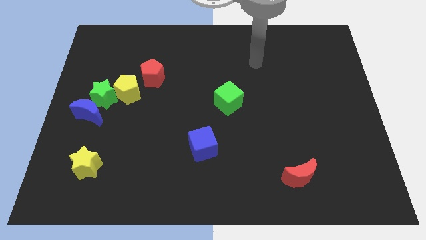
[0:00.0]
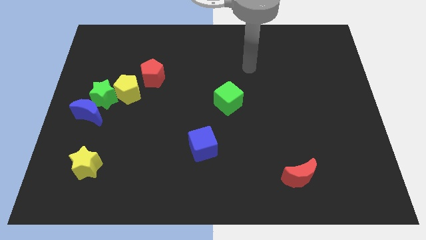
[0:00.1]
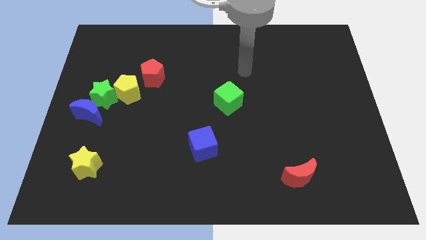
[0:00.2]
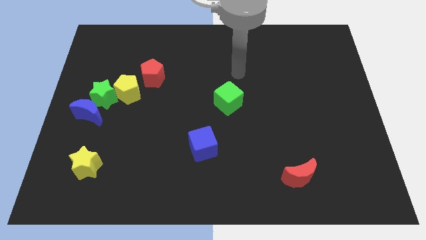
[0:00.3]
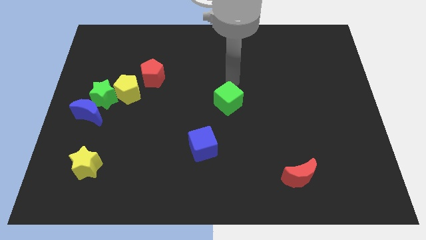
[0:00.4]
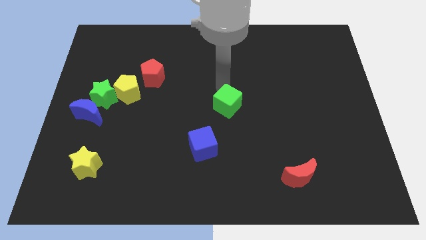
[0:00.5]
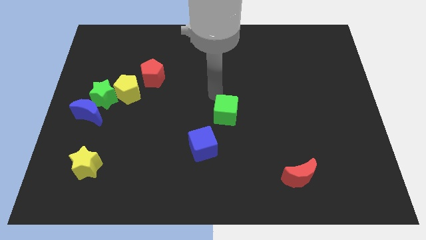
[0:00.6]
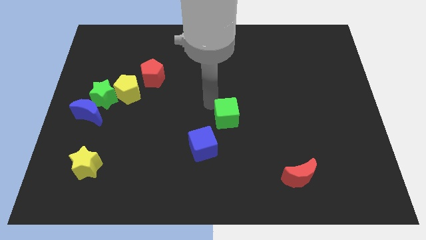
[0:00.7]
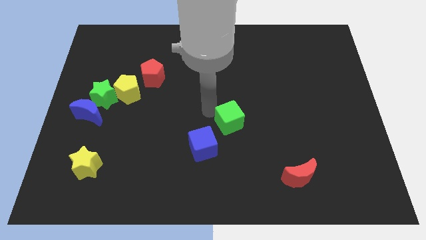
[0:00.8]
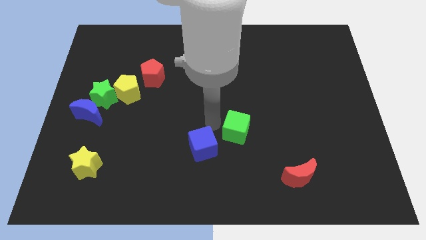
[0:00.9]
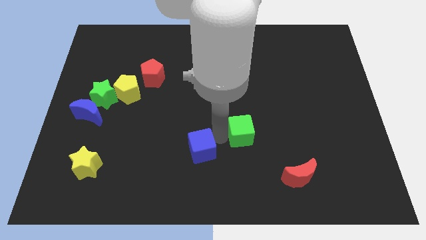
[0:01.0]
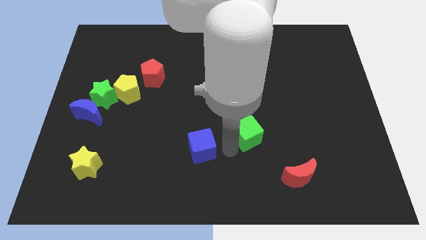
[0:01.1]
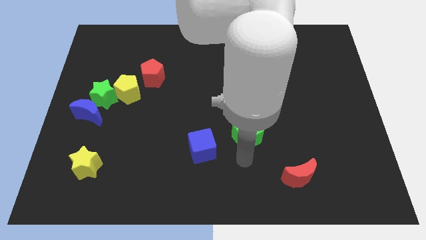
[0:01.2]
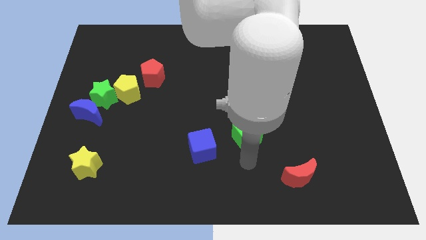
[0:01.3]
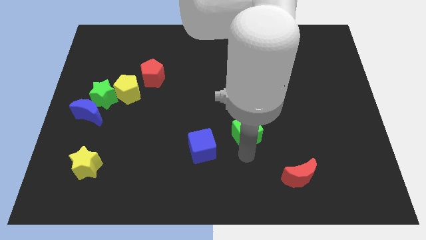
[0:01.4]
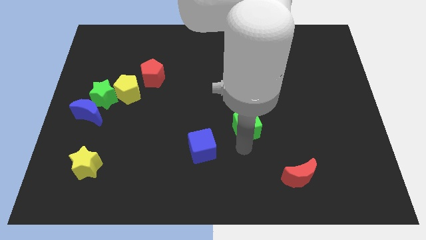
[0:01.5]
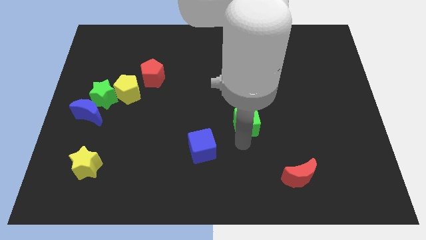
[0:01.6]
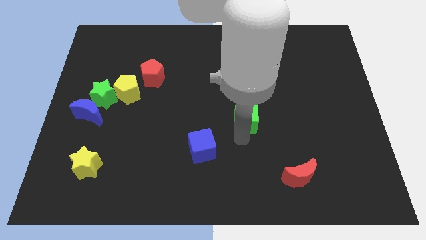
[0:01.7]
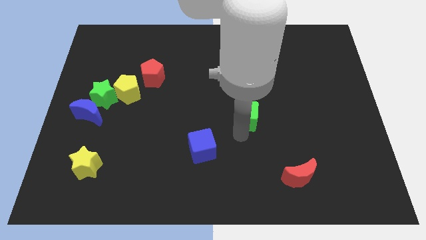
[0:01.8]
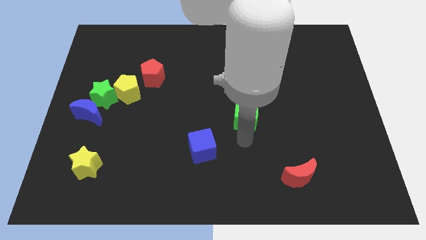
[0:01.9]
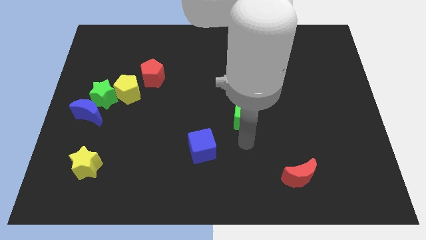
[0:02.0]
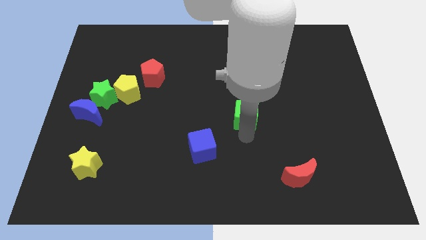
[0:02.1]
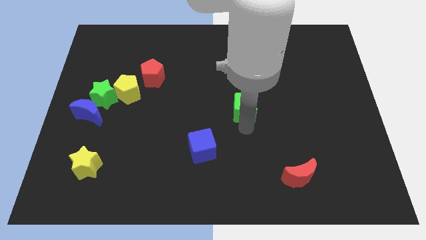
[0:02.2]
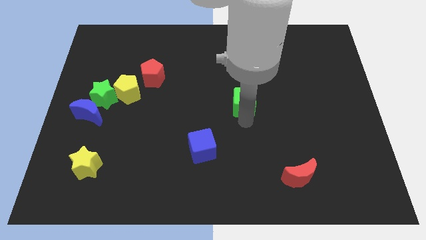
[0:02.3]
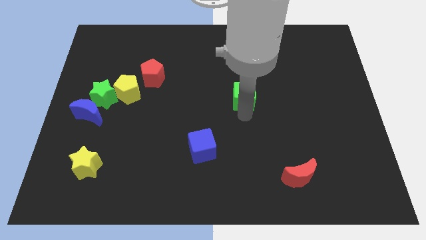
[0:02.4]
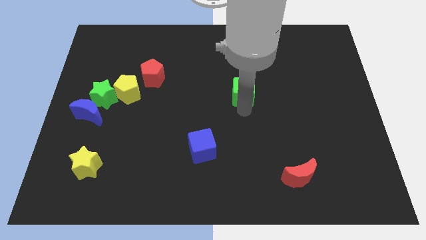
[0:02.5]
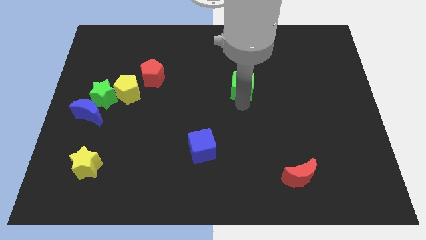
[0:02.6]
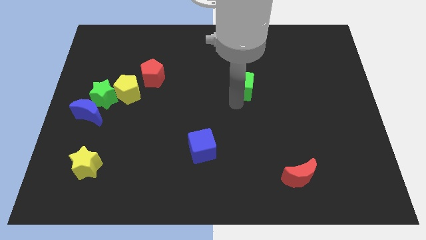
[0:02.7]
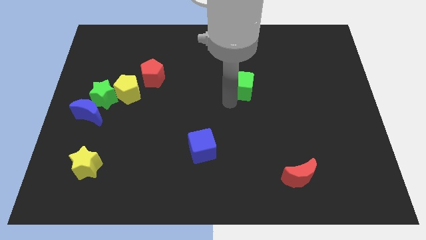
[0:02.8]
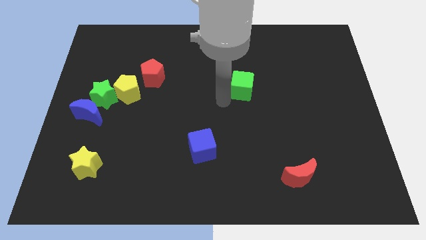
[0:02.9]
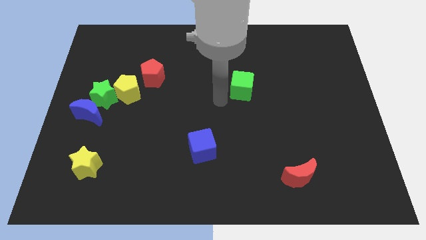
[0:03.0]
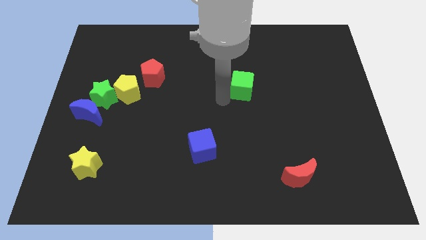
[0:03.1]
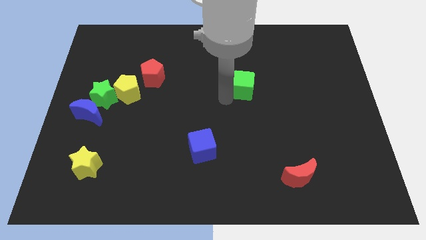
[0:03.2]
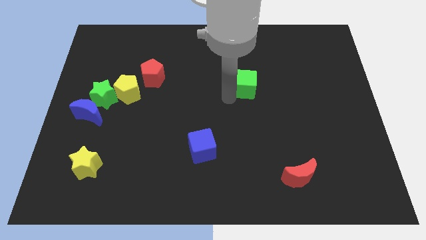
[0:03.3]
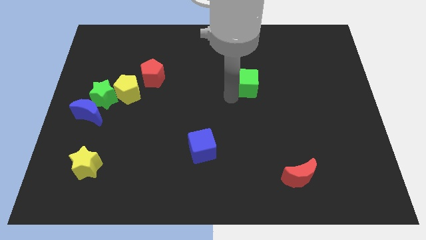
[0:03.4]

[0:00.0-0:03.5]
move the green cube upwards and right diagonally a little bit

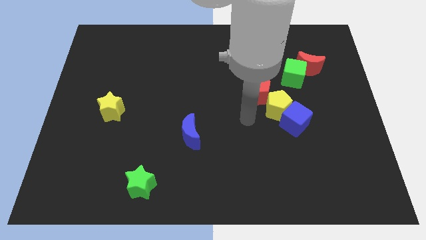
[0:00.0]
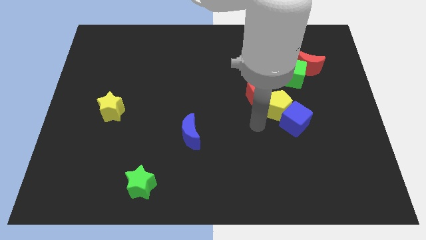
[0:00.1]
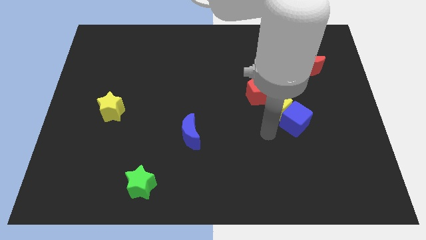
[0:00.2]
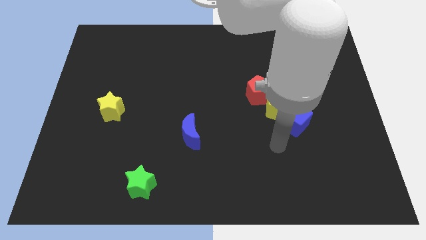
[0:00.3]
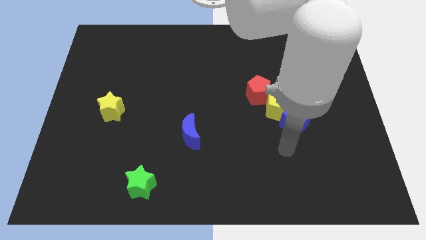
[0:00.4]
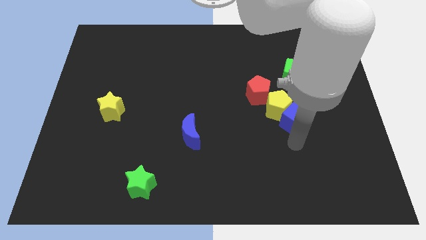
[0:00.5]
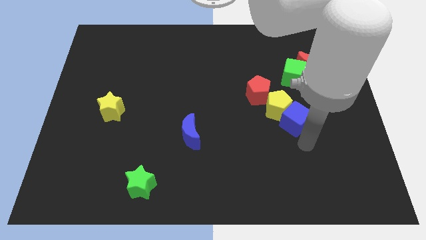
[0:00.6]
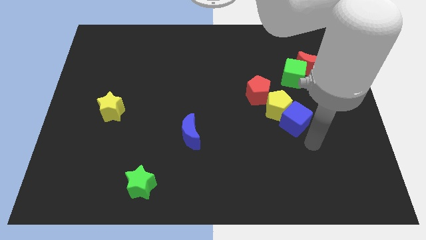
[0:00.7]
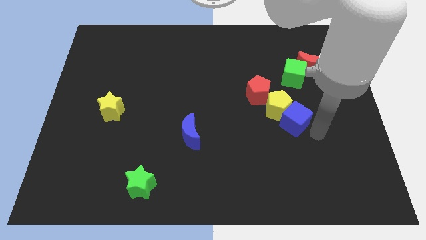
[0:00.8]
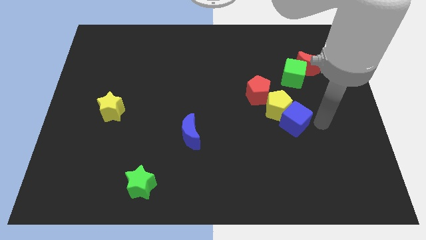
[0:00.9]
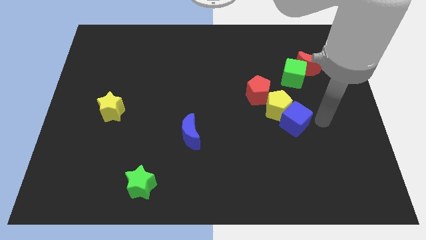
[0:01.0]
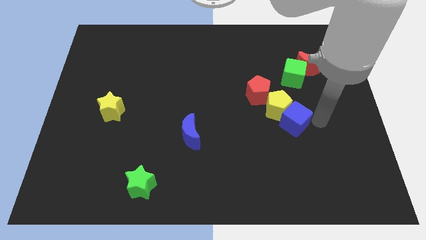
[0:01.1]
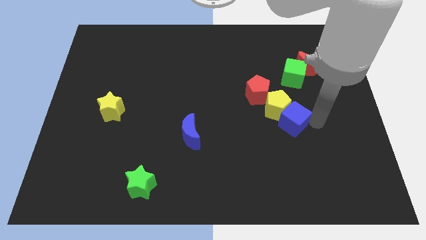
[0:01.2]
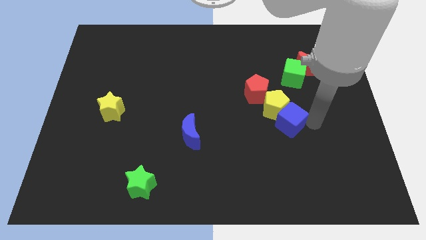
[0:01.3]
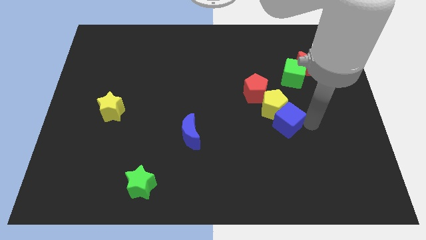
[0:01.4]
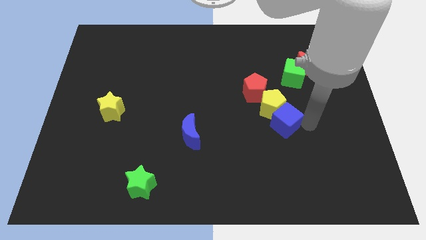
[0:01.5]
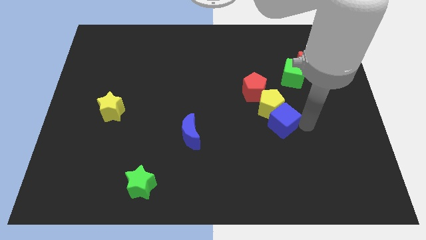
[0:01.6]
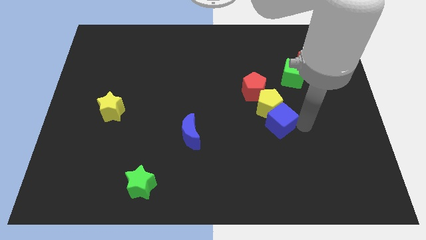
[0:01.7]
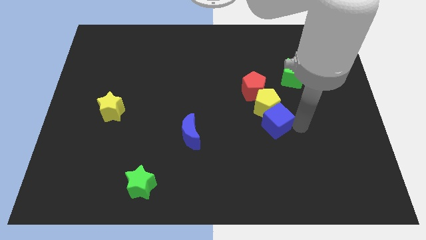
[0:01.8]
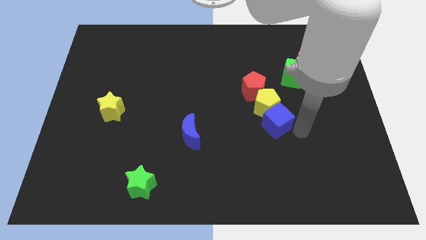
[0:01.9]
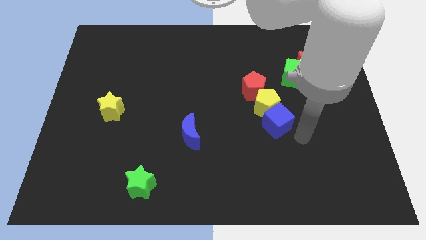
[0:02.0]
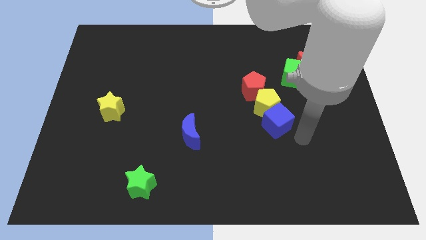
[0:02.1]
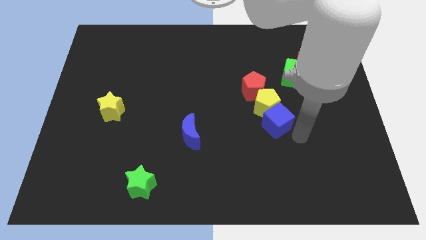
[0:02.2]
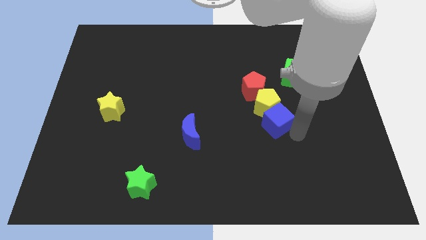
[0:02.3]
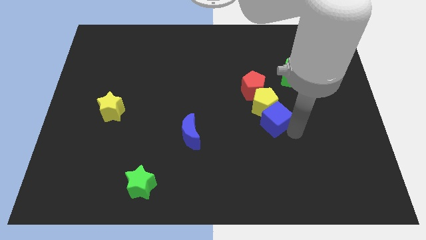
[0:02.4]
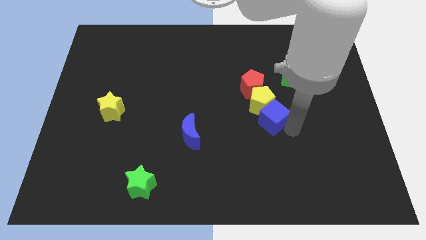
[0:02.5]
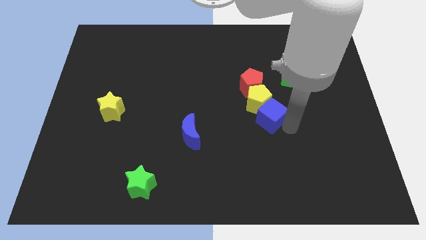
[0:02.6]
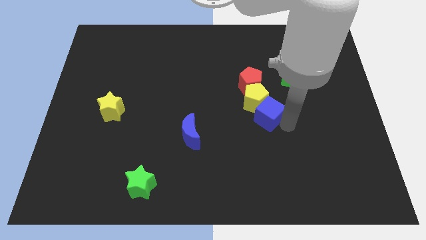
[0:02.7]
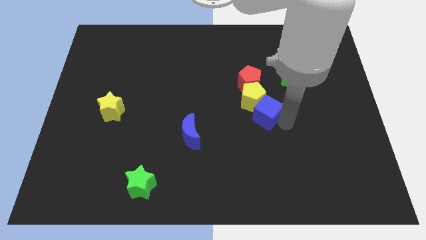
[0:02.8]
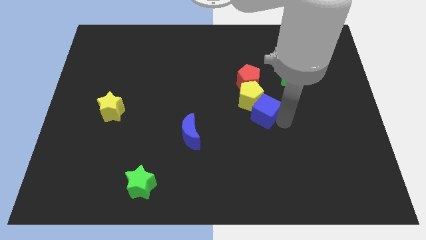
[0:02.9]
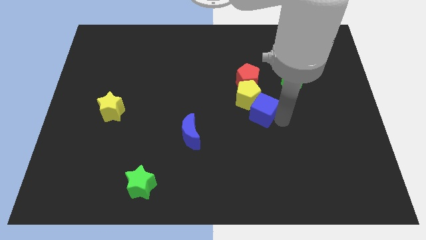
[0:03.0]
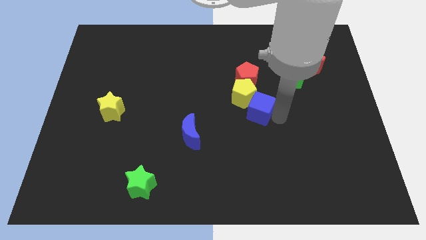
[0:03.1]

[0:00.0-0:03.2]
slide the blue cube up and then left a little

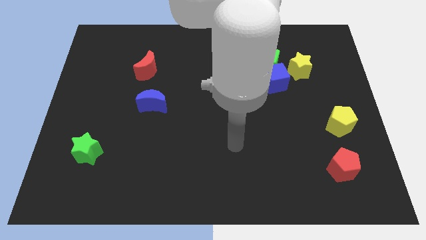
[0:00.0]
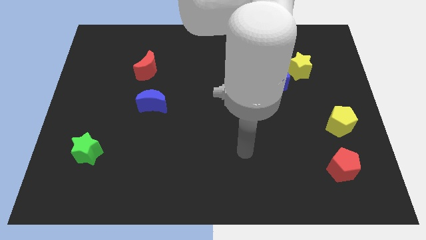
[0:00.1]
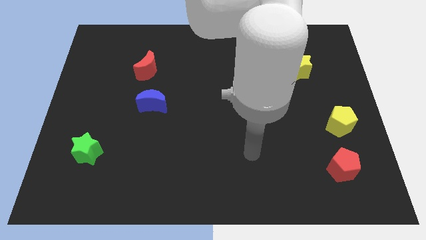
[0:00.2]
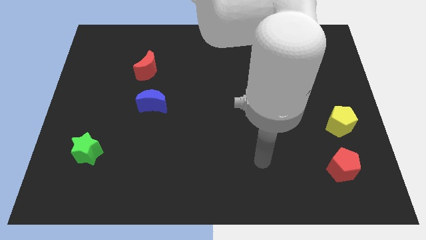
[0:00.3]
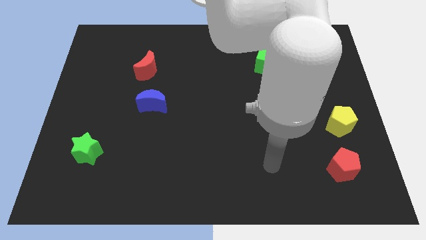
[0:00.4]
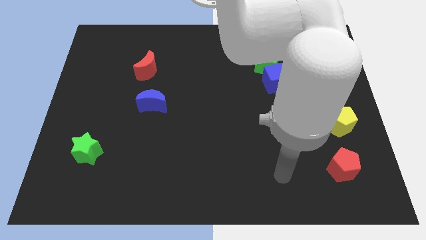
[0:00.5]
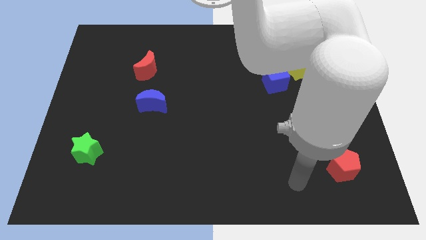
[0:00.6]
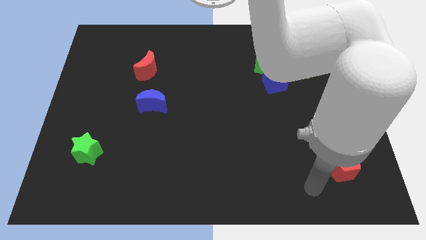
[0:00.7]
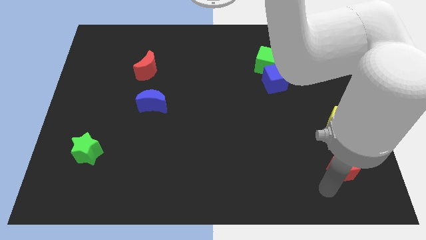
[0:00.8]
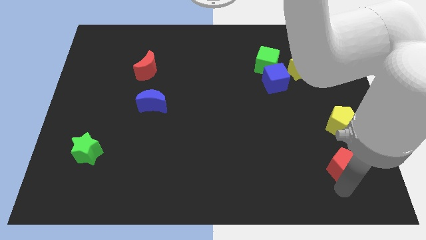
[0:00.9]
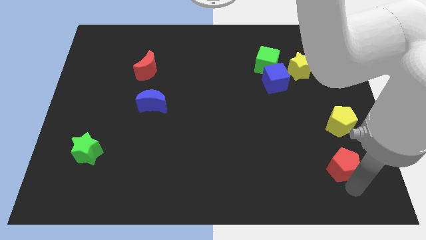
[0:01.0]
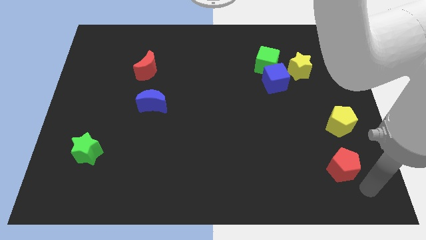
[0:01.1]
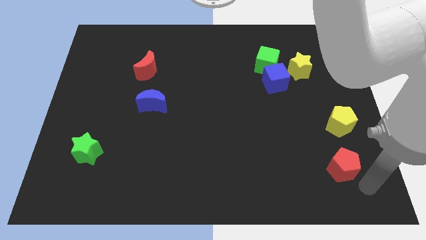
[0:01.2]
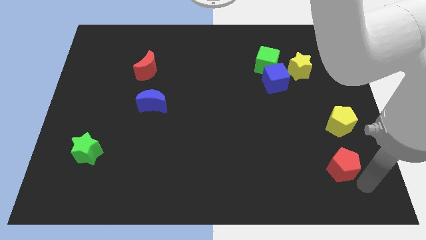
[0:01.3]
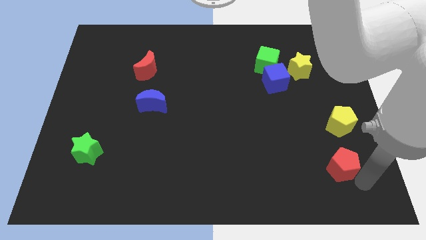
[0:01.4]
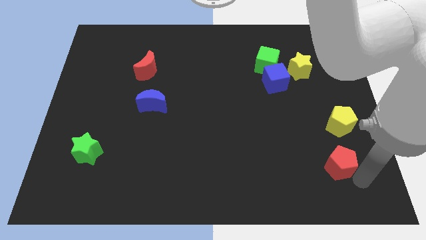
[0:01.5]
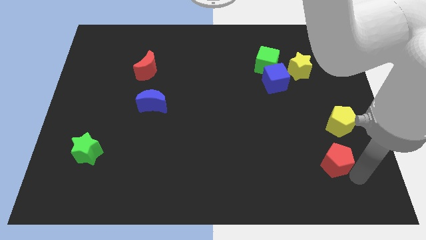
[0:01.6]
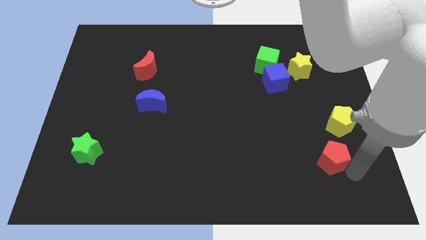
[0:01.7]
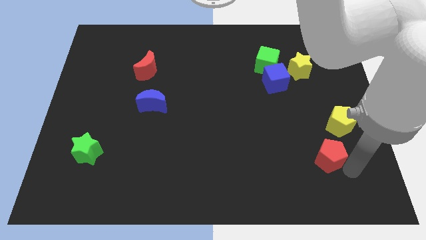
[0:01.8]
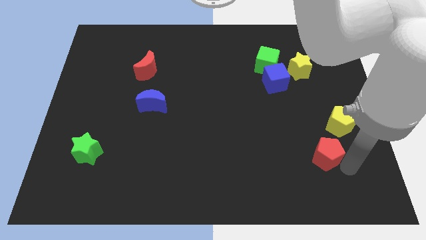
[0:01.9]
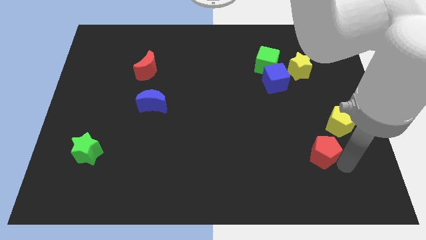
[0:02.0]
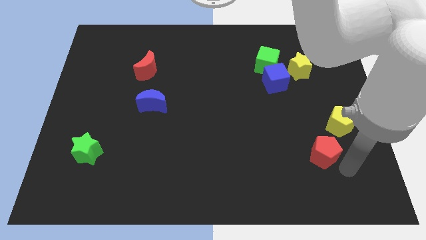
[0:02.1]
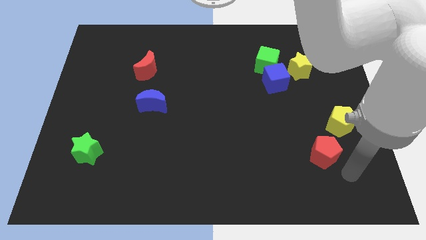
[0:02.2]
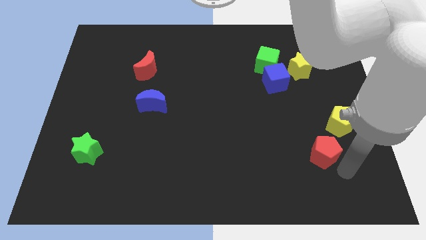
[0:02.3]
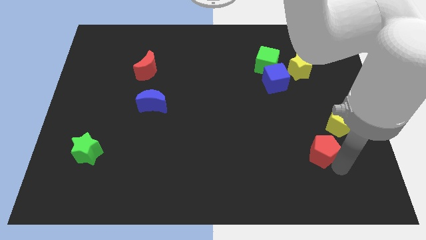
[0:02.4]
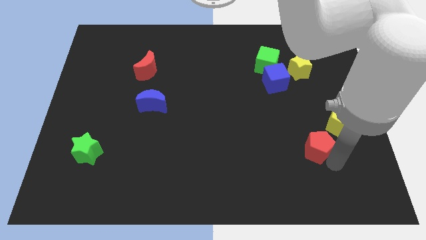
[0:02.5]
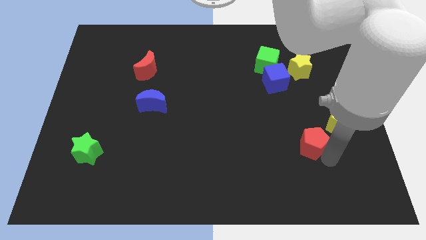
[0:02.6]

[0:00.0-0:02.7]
slide the red pentagon a bit diagonally up and left
